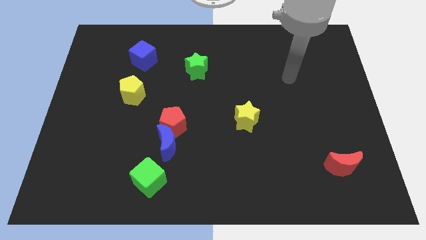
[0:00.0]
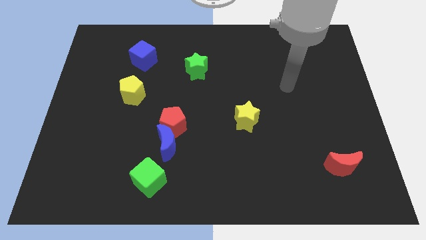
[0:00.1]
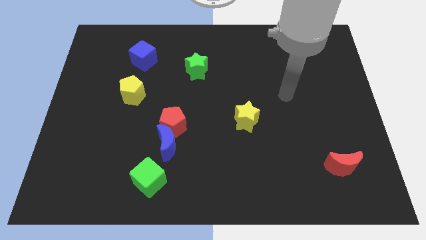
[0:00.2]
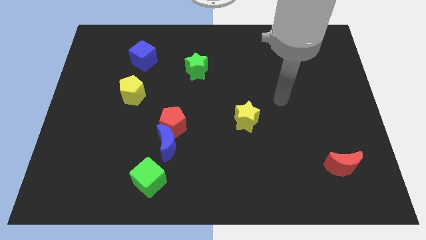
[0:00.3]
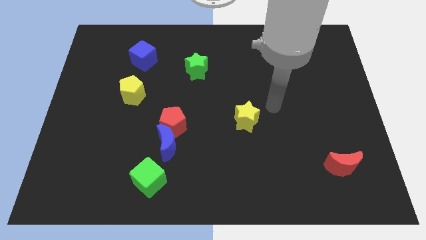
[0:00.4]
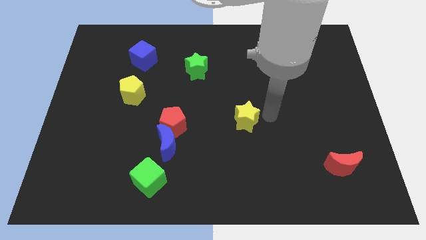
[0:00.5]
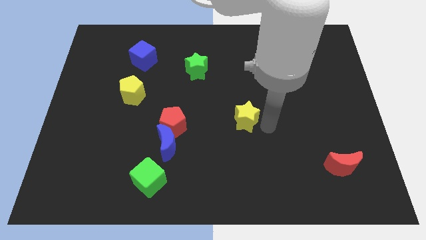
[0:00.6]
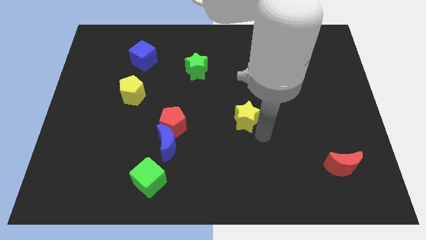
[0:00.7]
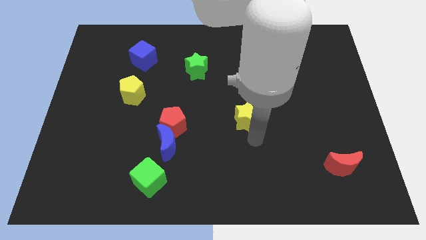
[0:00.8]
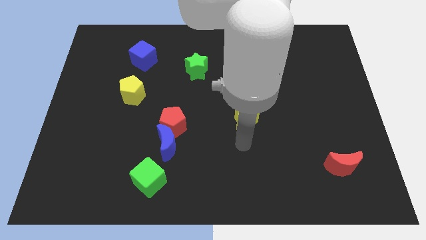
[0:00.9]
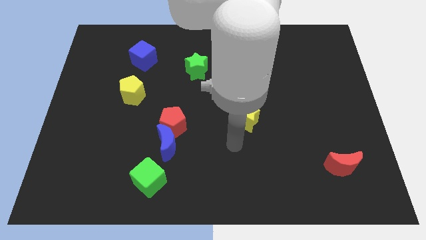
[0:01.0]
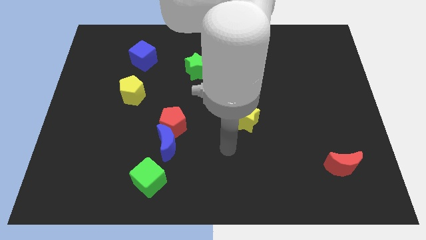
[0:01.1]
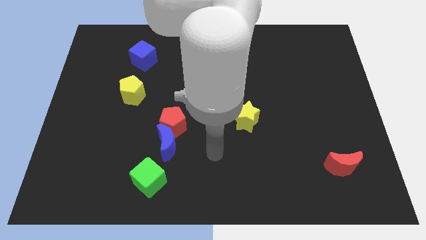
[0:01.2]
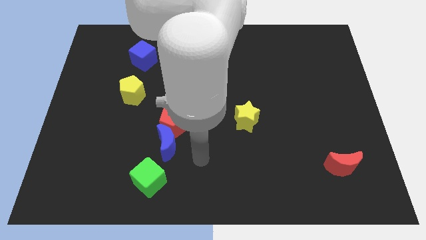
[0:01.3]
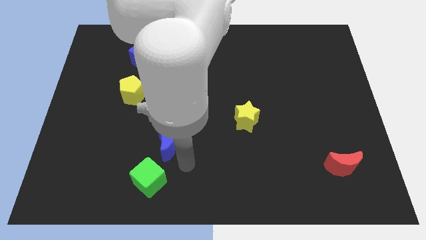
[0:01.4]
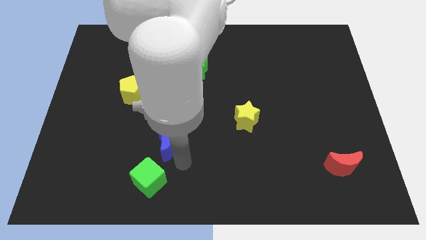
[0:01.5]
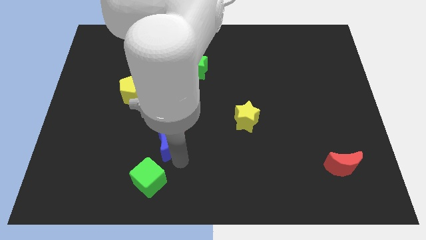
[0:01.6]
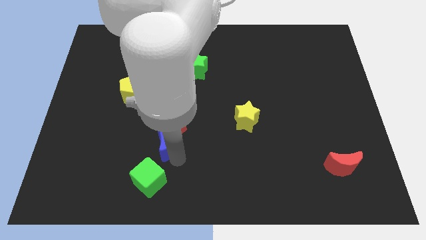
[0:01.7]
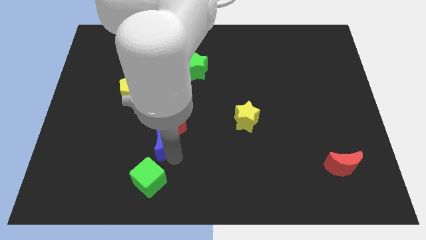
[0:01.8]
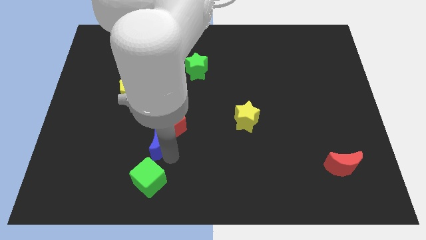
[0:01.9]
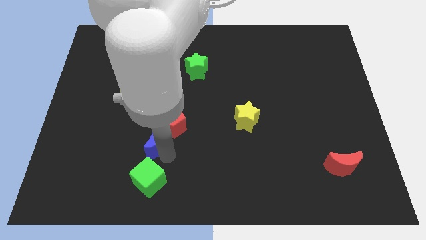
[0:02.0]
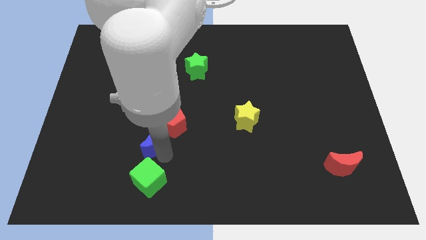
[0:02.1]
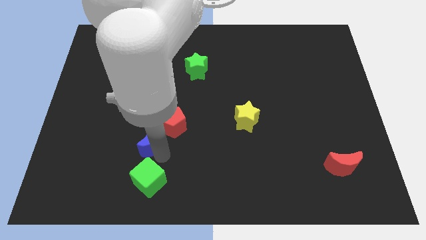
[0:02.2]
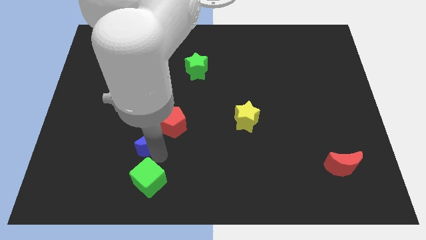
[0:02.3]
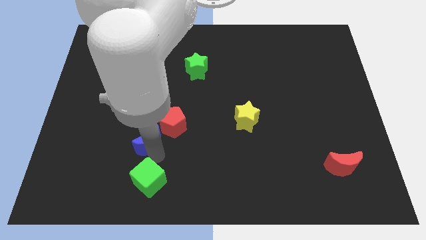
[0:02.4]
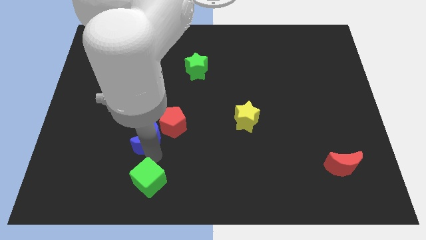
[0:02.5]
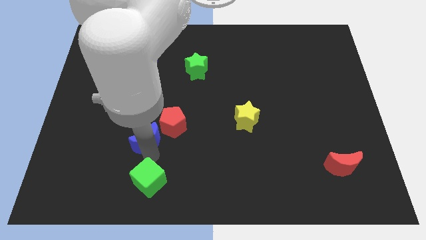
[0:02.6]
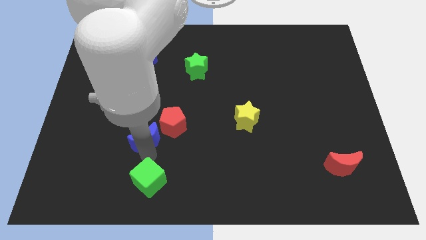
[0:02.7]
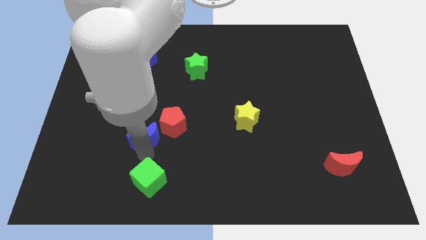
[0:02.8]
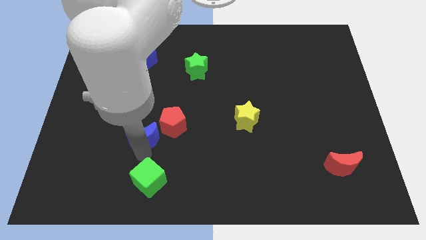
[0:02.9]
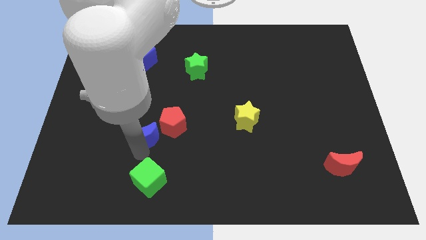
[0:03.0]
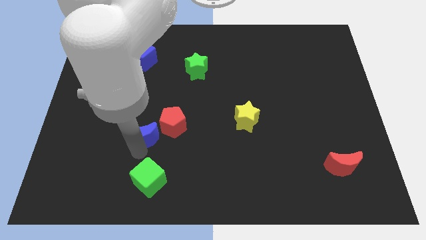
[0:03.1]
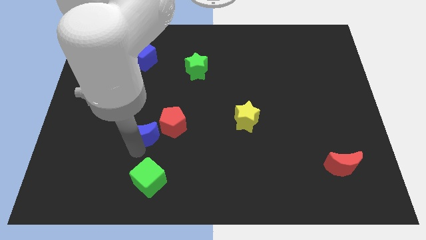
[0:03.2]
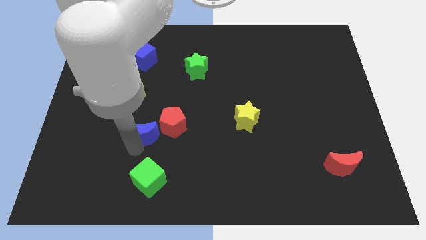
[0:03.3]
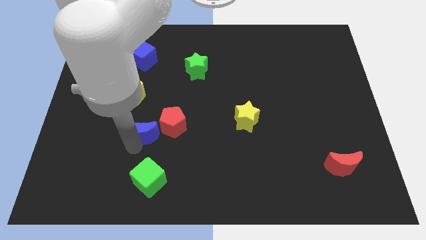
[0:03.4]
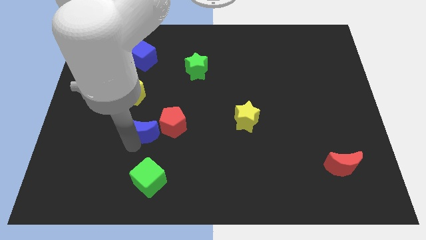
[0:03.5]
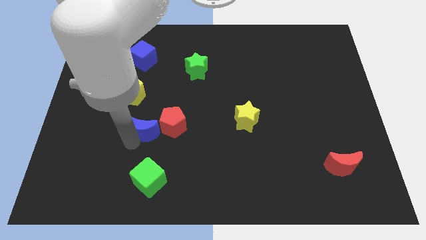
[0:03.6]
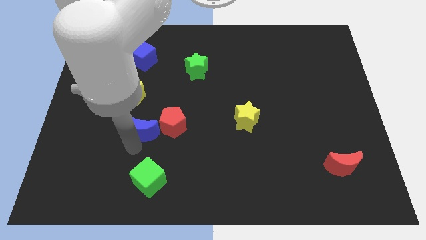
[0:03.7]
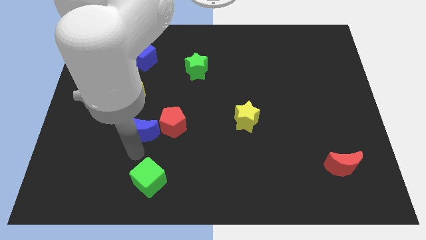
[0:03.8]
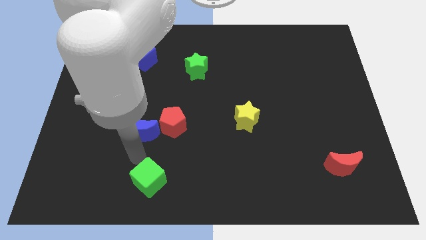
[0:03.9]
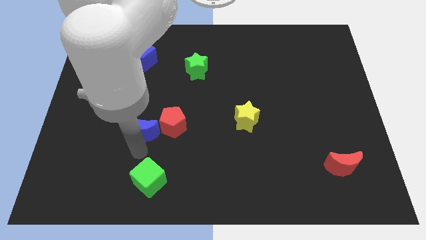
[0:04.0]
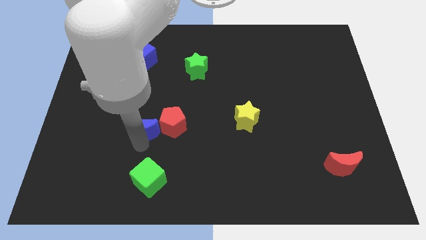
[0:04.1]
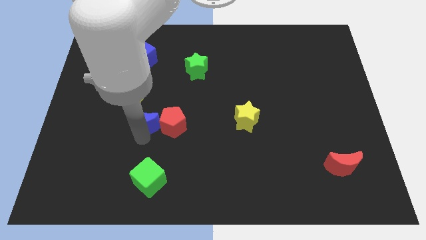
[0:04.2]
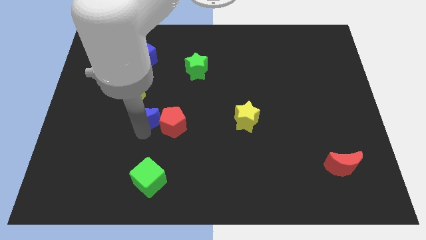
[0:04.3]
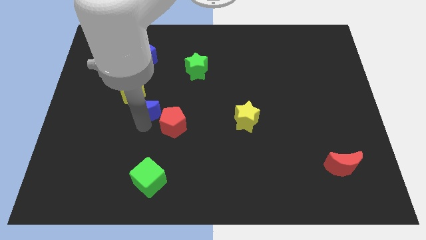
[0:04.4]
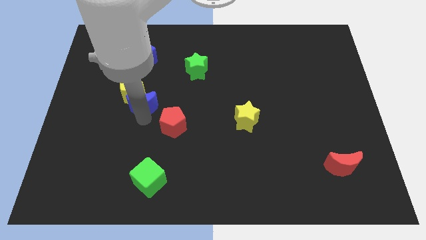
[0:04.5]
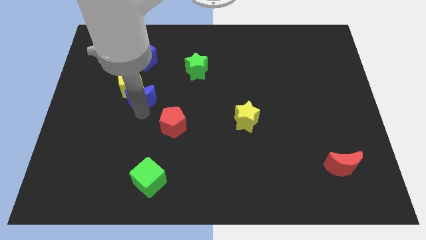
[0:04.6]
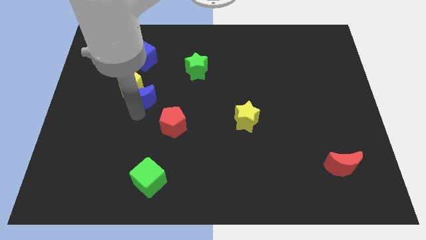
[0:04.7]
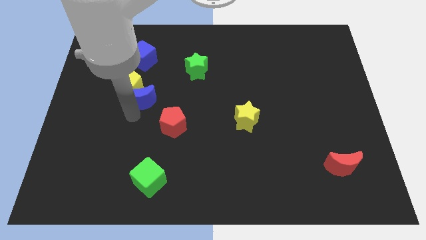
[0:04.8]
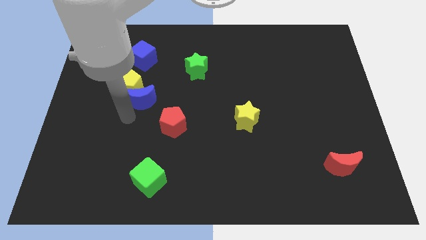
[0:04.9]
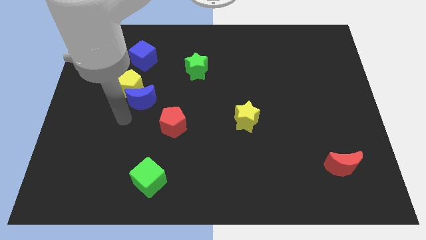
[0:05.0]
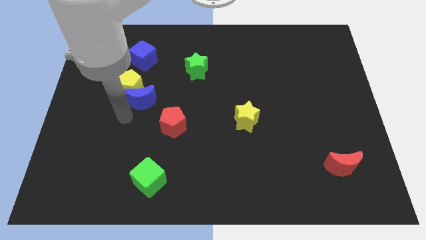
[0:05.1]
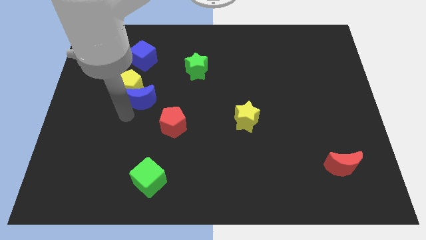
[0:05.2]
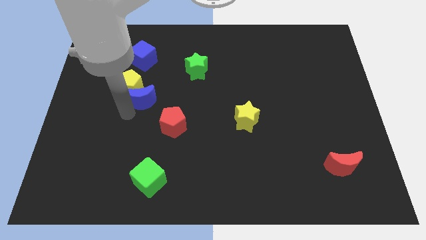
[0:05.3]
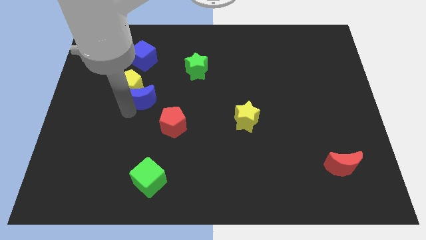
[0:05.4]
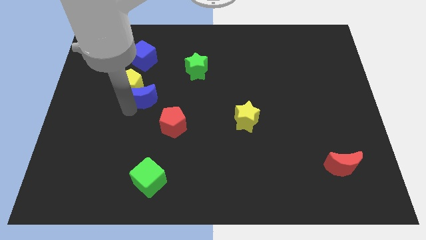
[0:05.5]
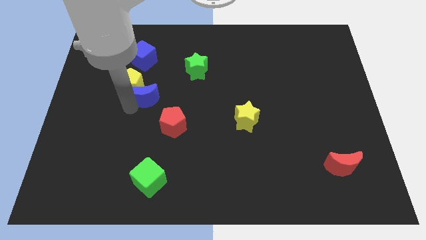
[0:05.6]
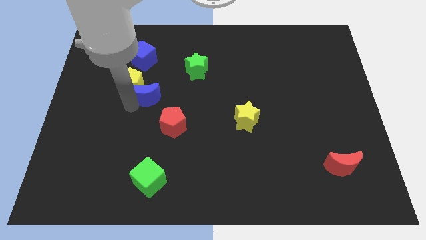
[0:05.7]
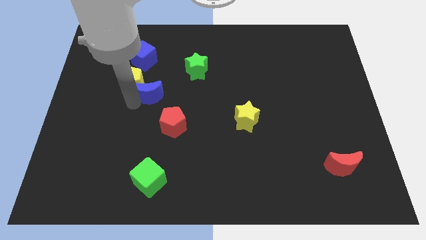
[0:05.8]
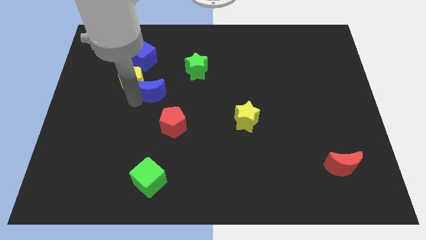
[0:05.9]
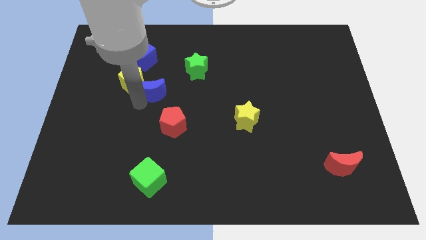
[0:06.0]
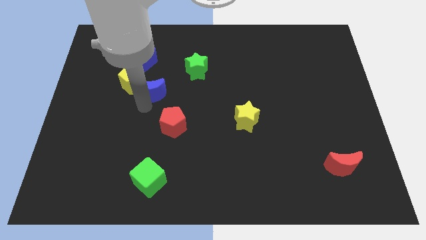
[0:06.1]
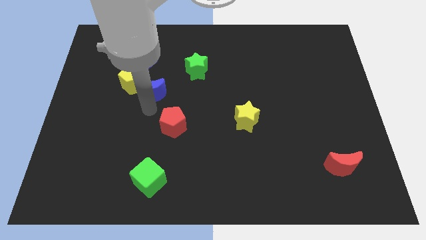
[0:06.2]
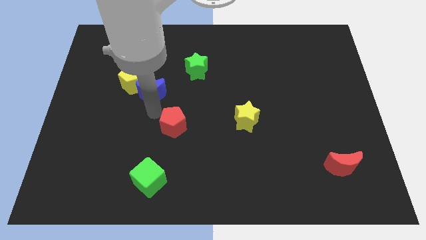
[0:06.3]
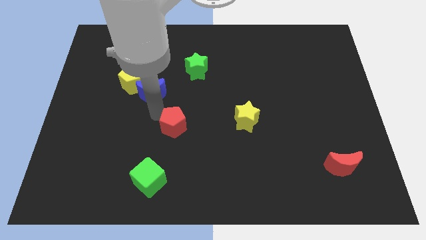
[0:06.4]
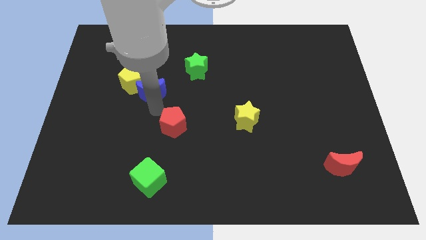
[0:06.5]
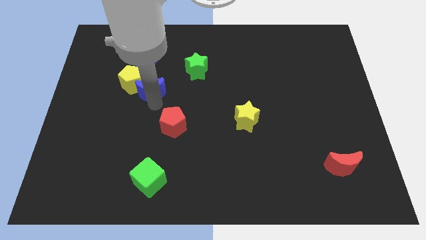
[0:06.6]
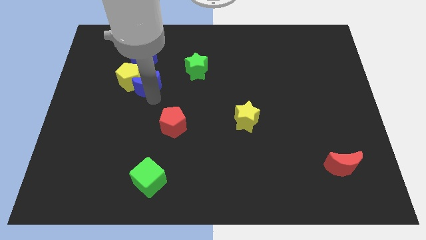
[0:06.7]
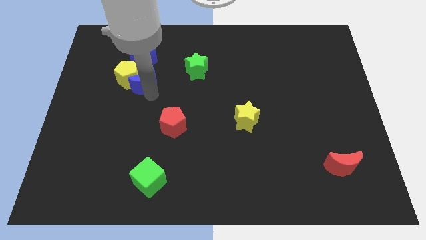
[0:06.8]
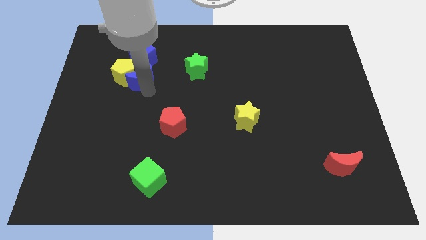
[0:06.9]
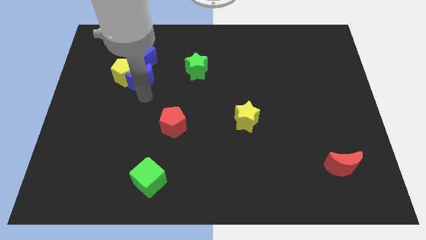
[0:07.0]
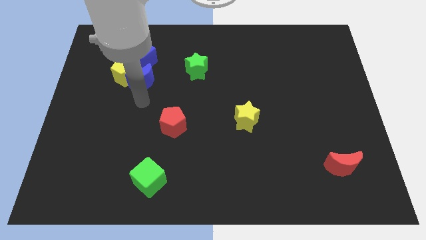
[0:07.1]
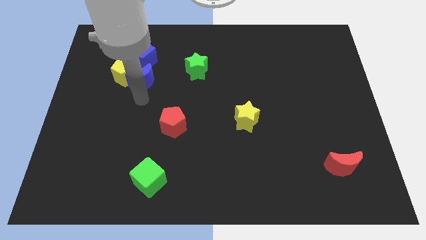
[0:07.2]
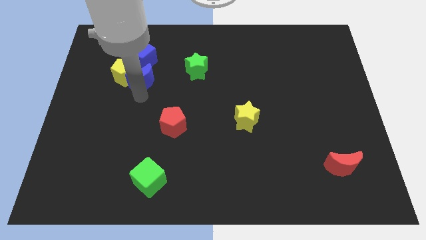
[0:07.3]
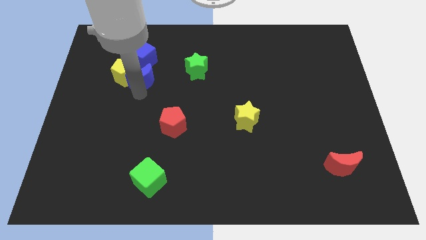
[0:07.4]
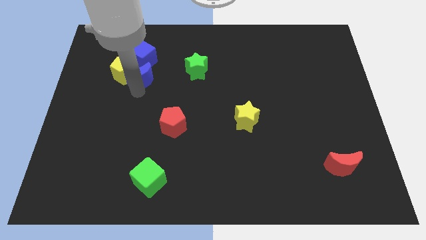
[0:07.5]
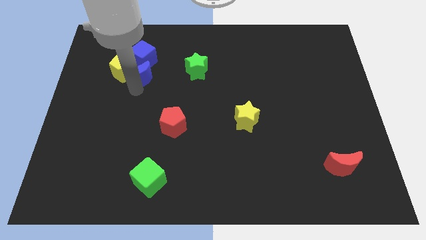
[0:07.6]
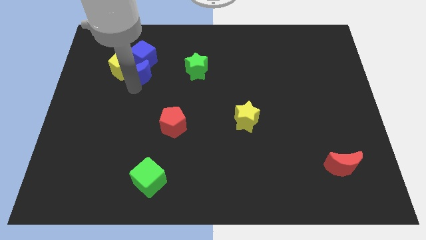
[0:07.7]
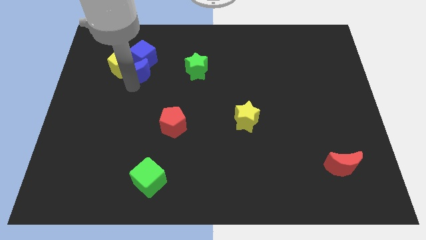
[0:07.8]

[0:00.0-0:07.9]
move the blue moon towards the blue cube
